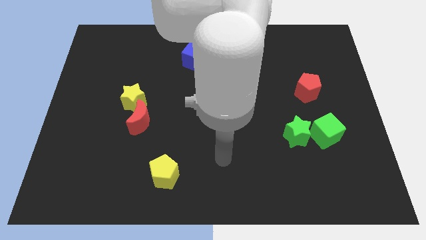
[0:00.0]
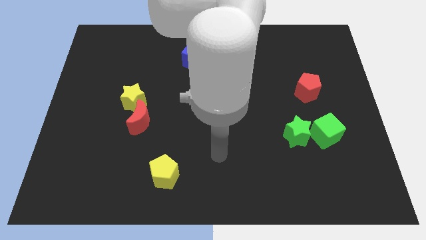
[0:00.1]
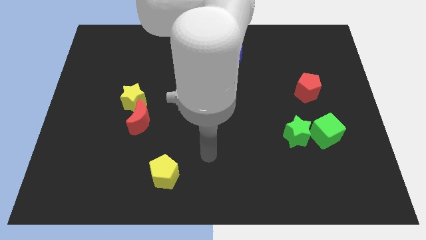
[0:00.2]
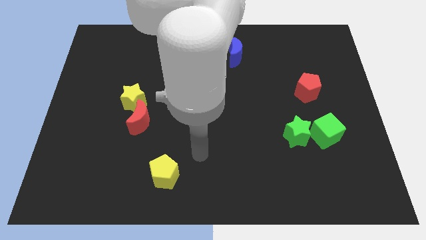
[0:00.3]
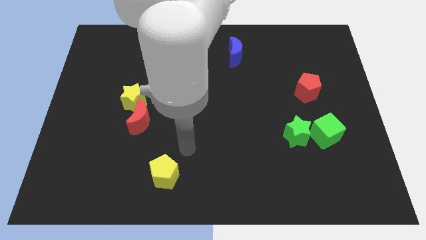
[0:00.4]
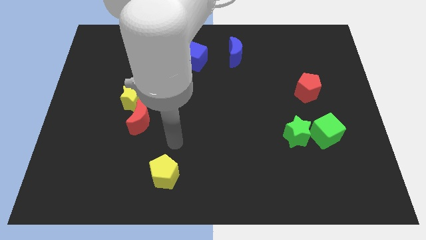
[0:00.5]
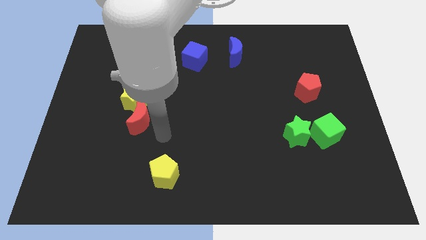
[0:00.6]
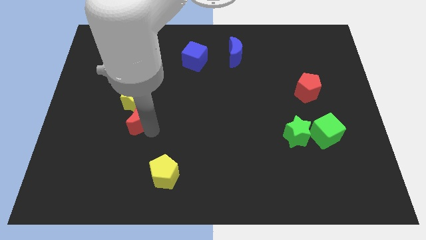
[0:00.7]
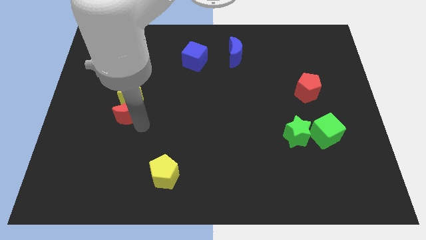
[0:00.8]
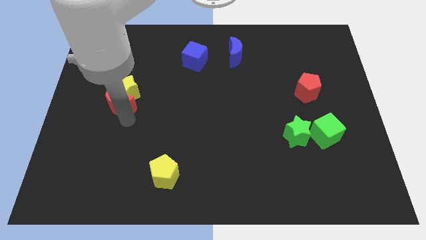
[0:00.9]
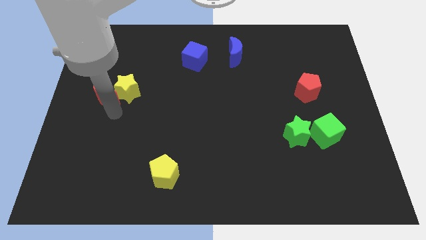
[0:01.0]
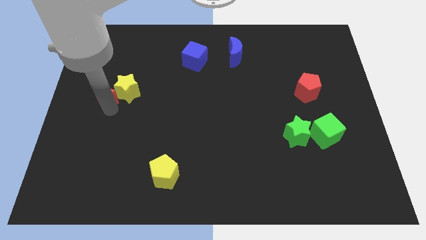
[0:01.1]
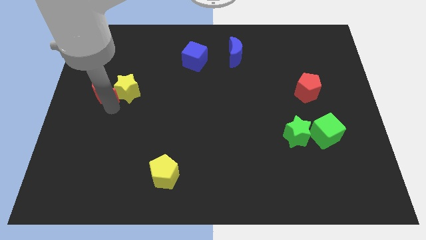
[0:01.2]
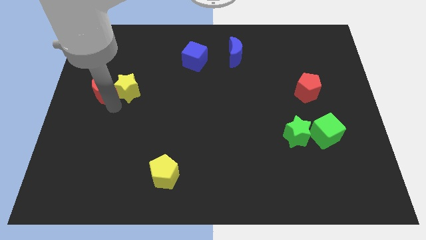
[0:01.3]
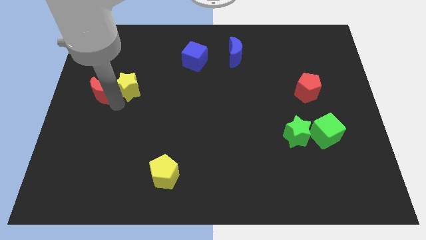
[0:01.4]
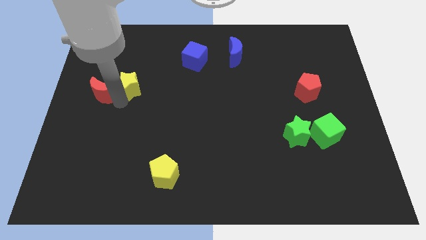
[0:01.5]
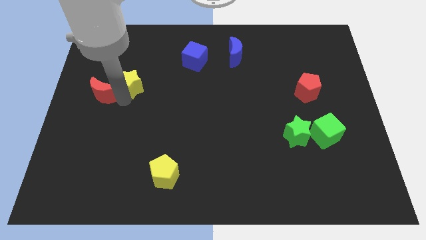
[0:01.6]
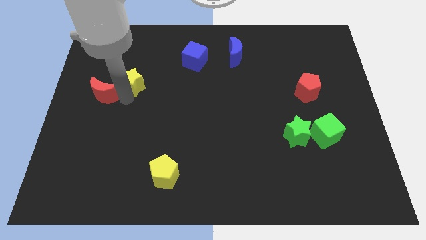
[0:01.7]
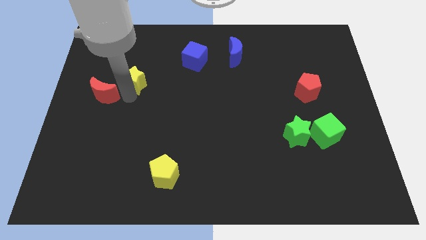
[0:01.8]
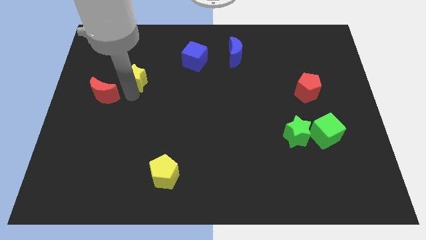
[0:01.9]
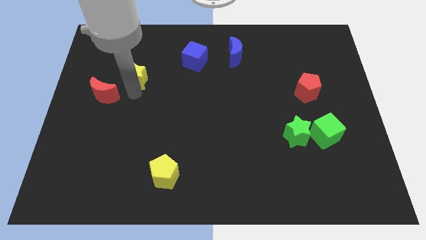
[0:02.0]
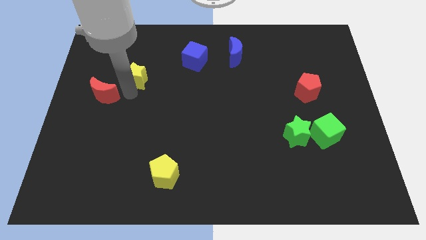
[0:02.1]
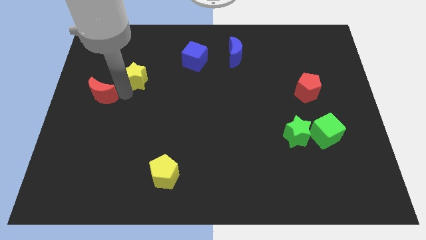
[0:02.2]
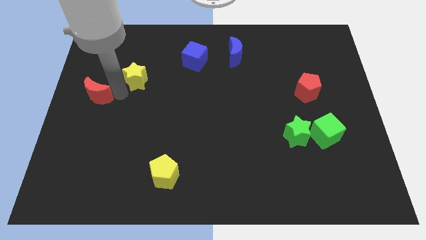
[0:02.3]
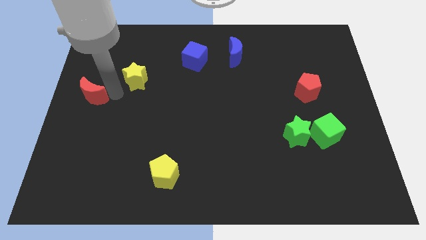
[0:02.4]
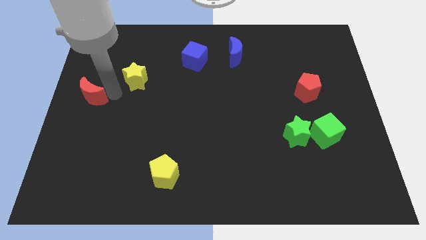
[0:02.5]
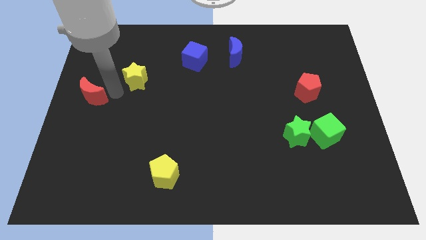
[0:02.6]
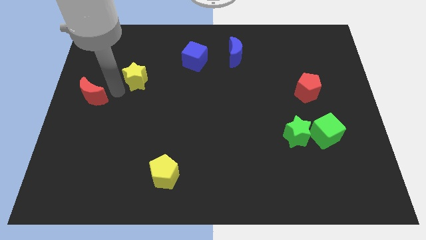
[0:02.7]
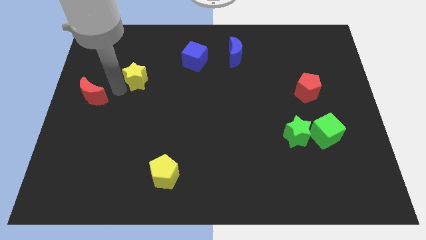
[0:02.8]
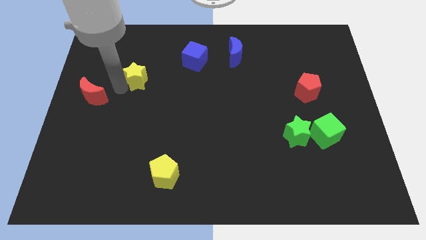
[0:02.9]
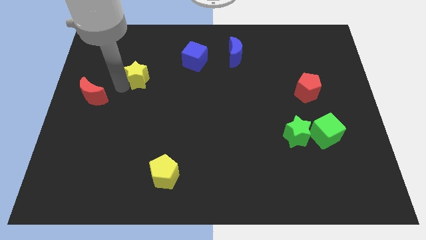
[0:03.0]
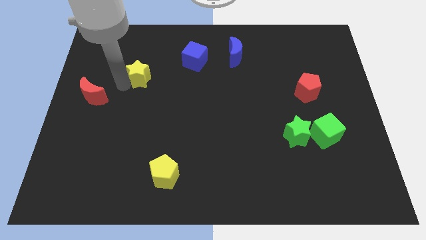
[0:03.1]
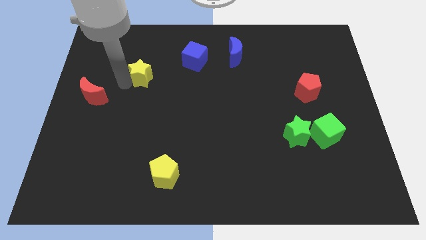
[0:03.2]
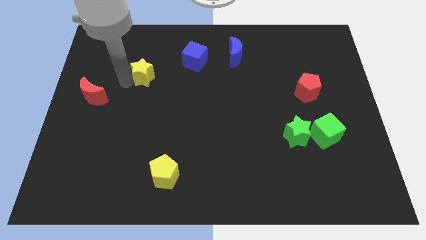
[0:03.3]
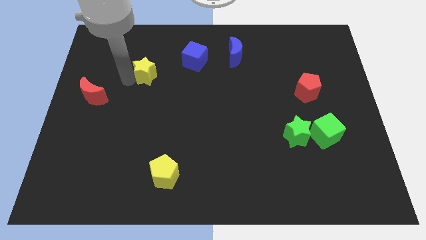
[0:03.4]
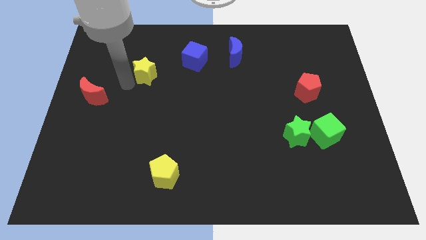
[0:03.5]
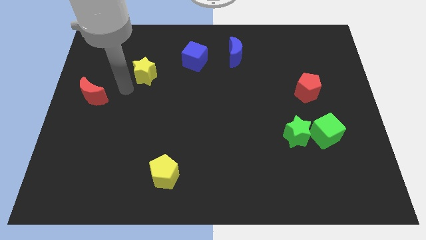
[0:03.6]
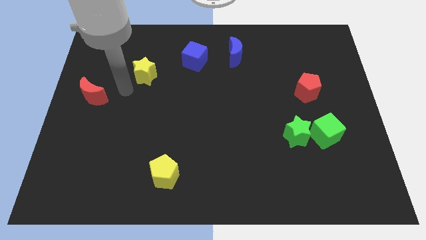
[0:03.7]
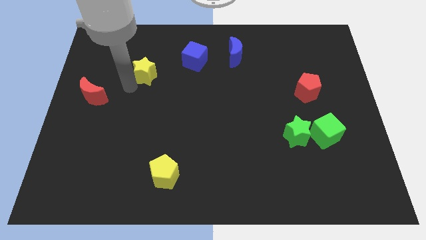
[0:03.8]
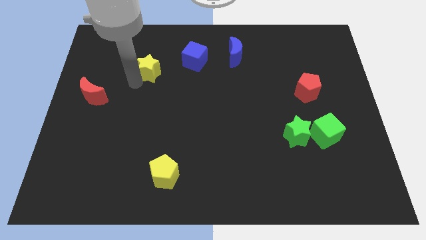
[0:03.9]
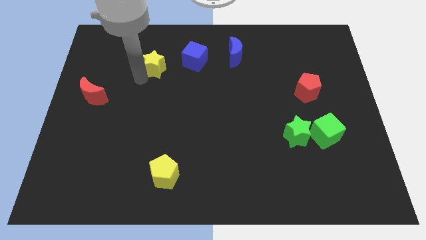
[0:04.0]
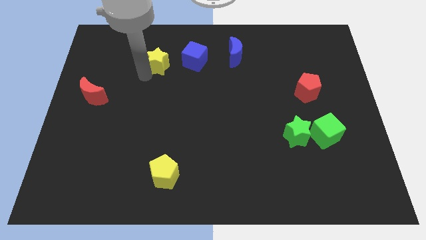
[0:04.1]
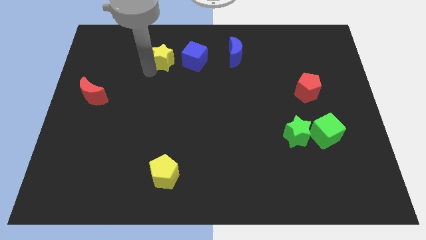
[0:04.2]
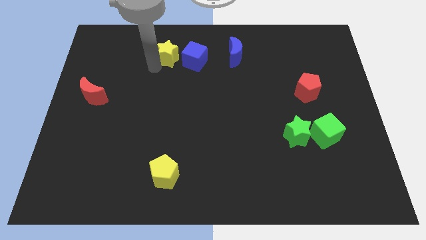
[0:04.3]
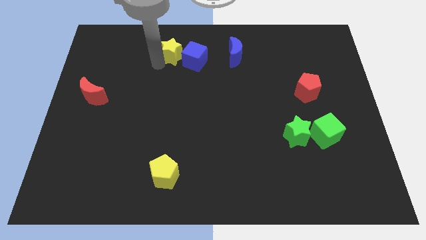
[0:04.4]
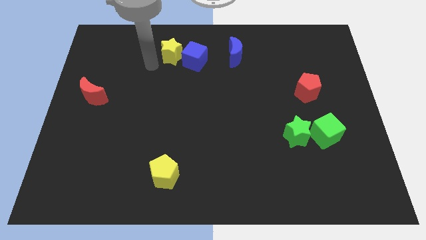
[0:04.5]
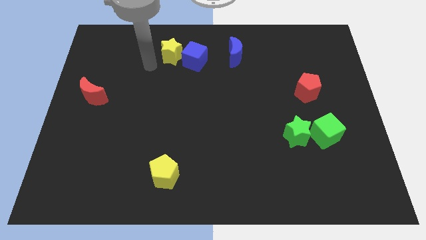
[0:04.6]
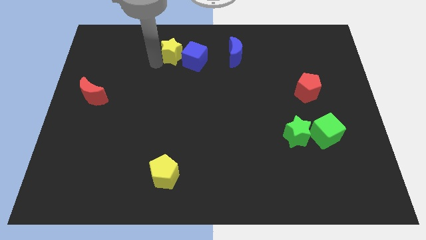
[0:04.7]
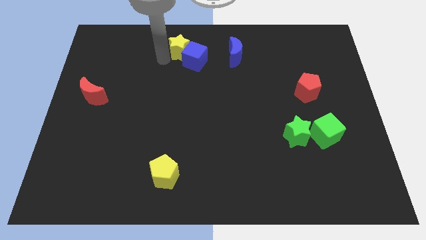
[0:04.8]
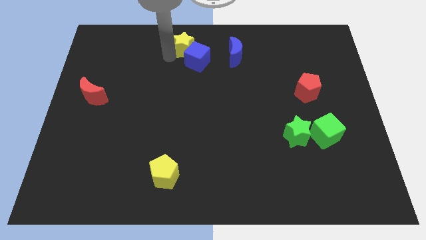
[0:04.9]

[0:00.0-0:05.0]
move the yellow star to the top

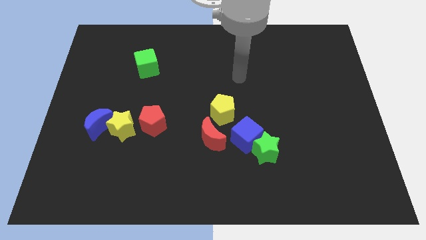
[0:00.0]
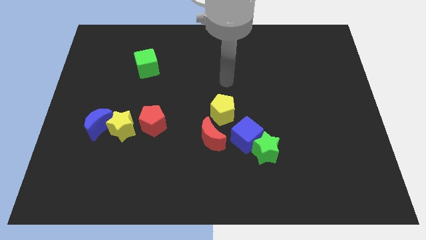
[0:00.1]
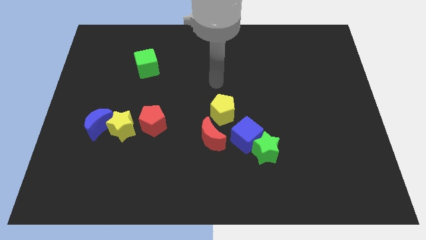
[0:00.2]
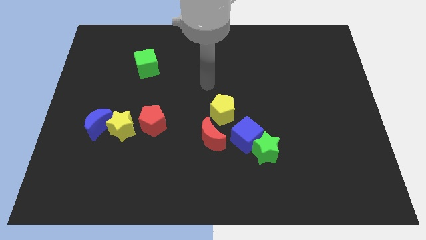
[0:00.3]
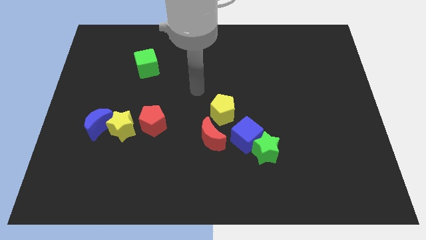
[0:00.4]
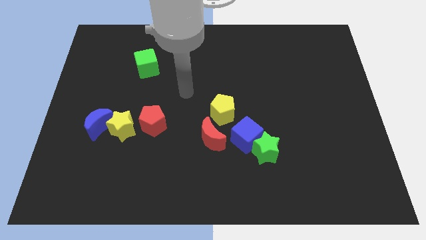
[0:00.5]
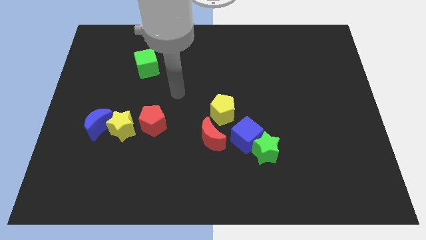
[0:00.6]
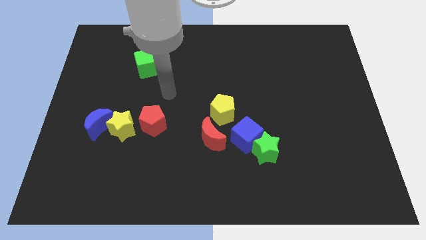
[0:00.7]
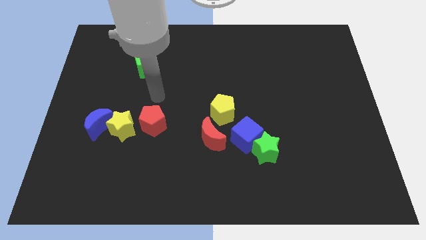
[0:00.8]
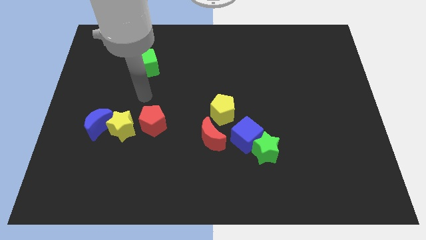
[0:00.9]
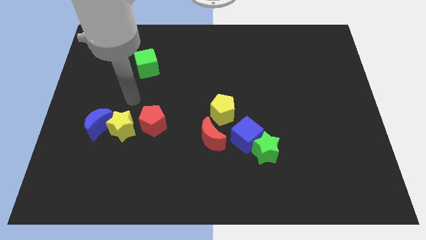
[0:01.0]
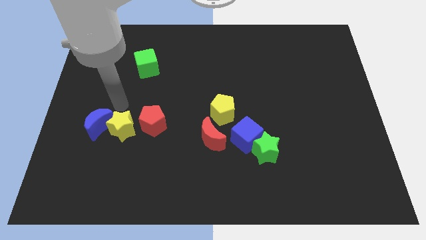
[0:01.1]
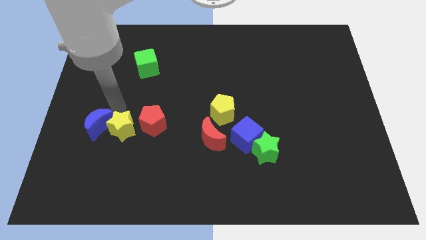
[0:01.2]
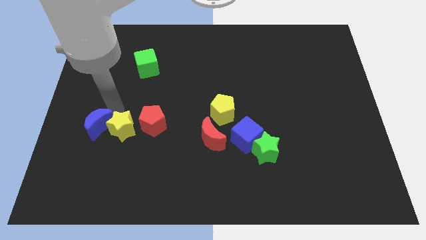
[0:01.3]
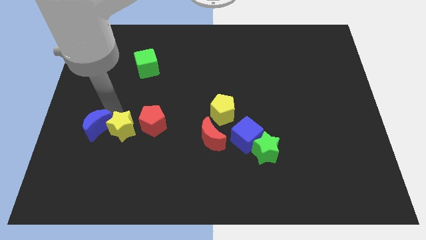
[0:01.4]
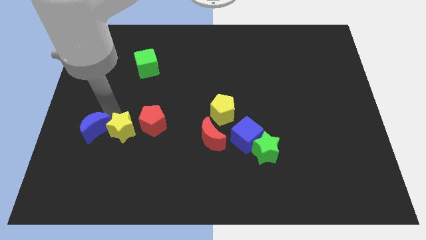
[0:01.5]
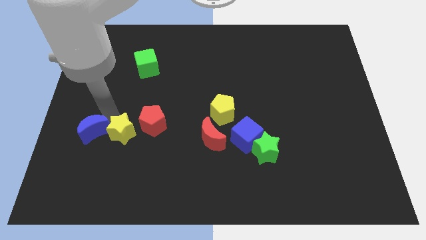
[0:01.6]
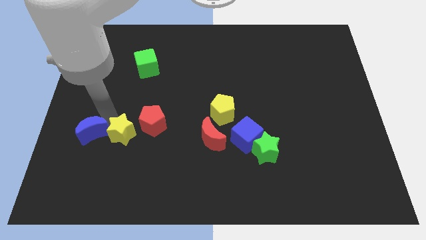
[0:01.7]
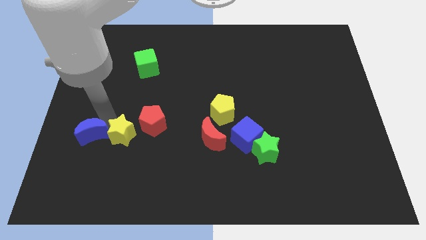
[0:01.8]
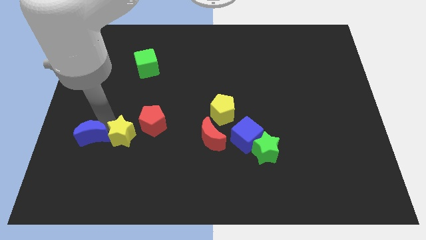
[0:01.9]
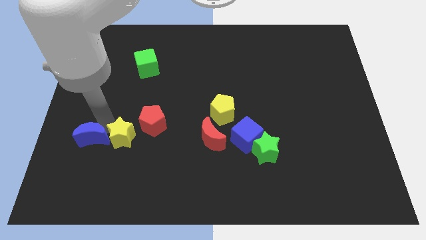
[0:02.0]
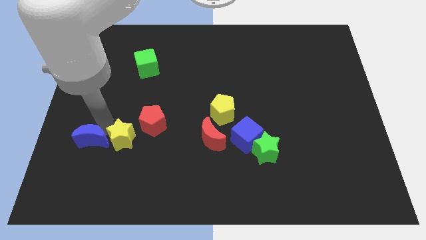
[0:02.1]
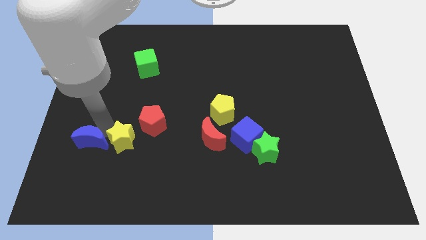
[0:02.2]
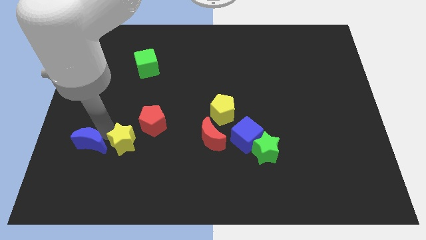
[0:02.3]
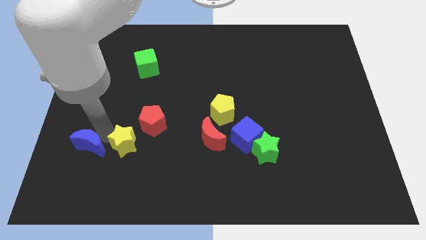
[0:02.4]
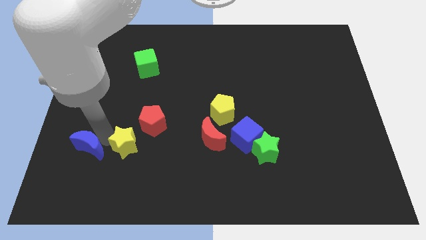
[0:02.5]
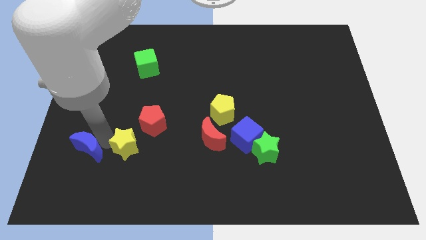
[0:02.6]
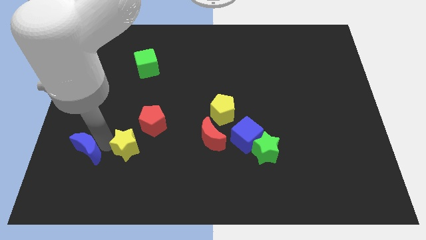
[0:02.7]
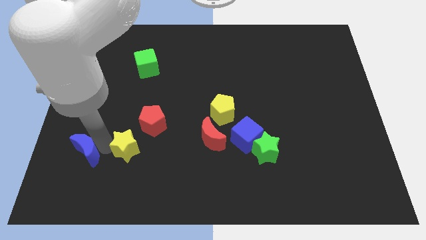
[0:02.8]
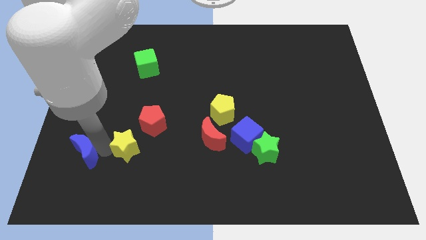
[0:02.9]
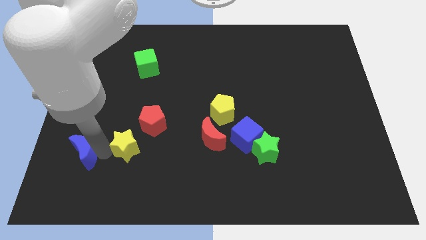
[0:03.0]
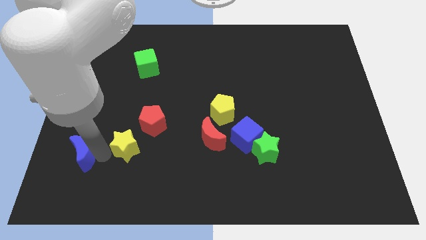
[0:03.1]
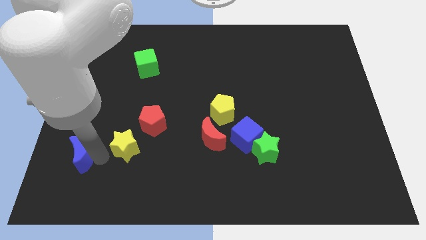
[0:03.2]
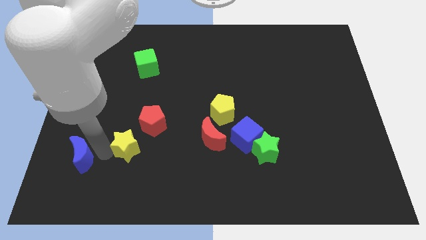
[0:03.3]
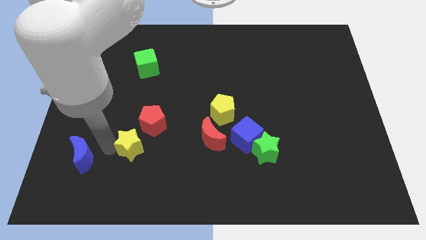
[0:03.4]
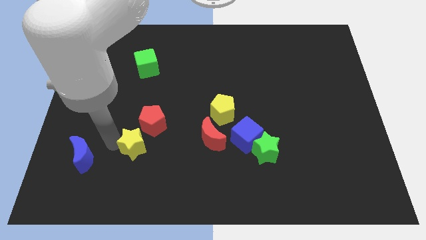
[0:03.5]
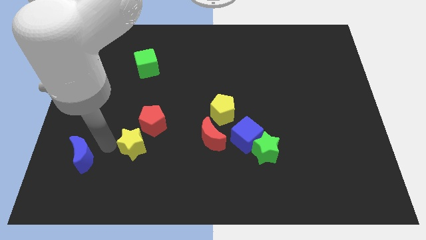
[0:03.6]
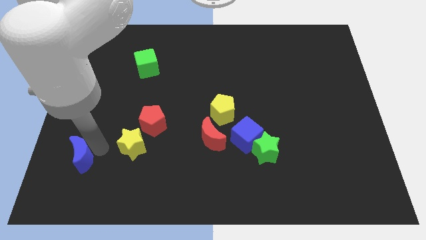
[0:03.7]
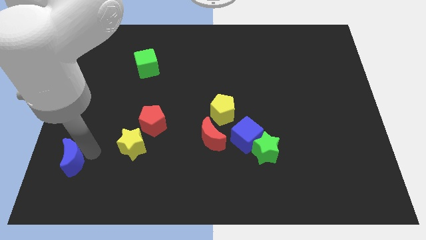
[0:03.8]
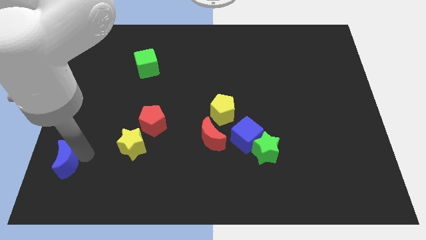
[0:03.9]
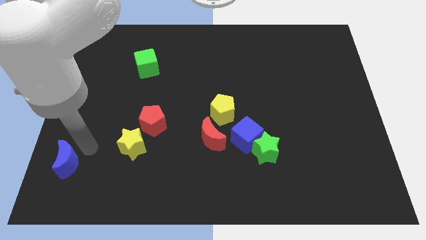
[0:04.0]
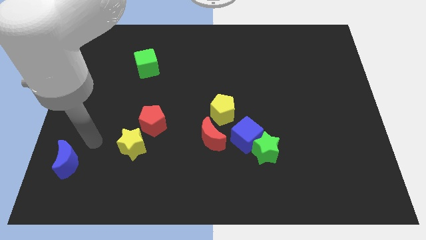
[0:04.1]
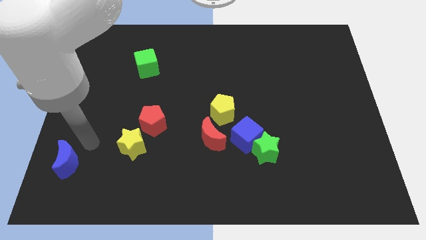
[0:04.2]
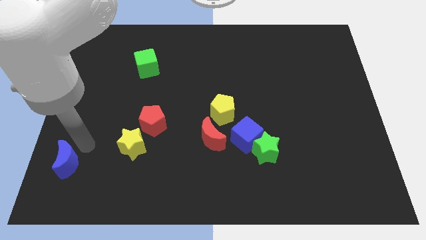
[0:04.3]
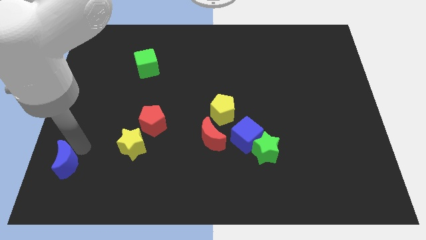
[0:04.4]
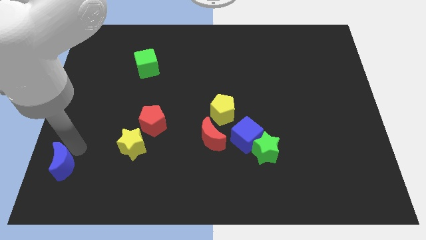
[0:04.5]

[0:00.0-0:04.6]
slide the blue moon to the lower left corner
